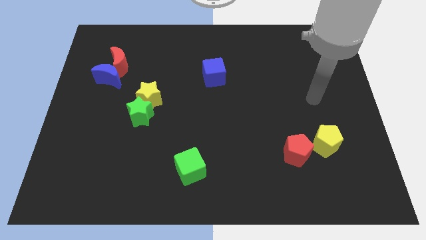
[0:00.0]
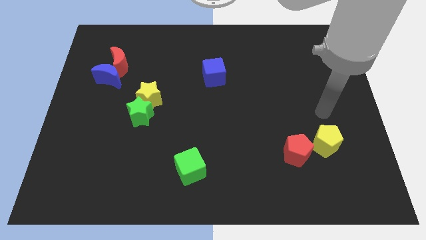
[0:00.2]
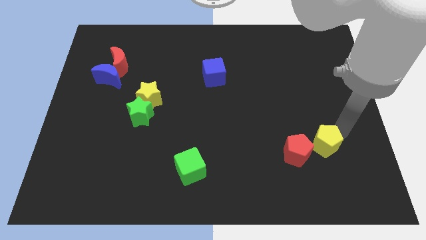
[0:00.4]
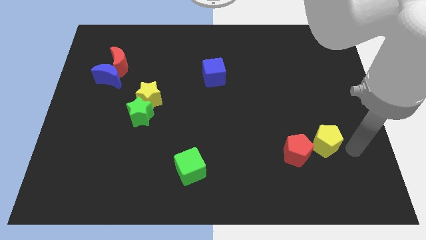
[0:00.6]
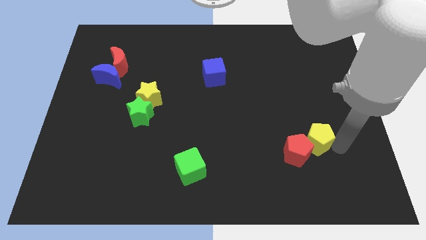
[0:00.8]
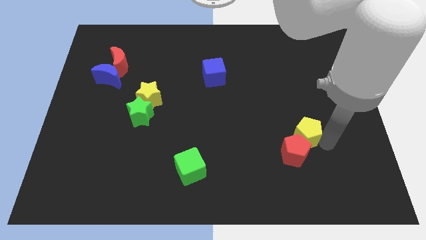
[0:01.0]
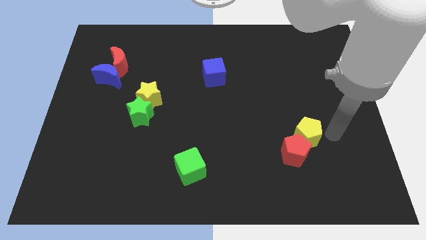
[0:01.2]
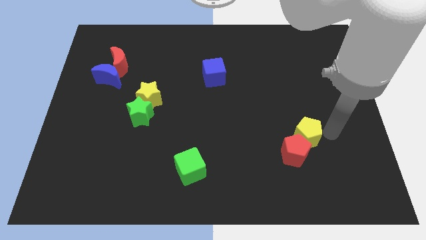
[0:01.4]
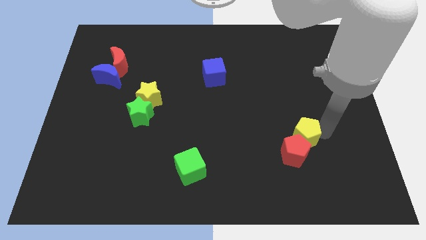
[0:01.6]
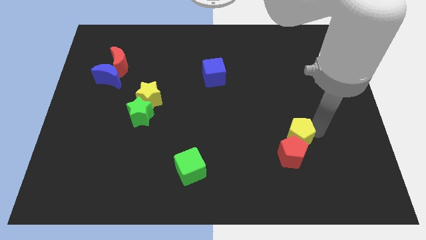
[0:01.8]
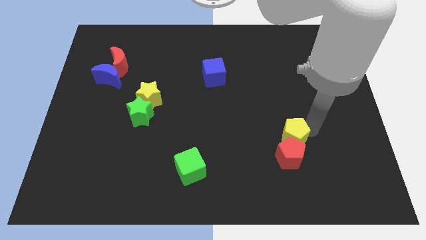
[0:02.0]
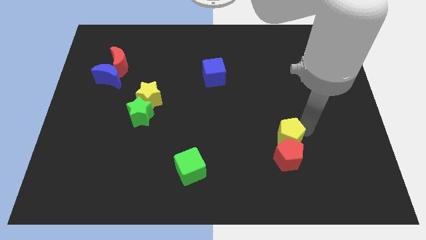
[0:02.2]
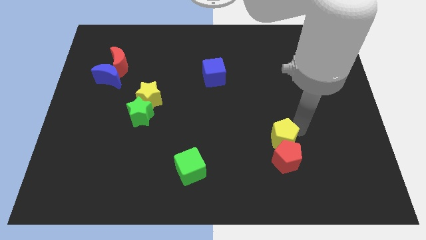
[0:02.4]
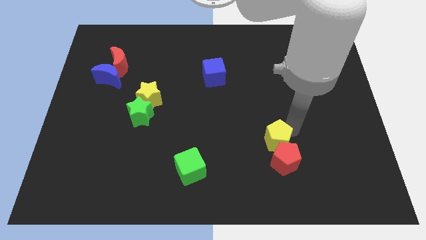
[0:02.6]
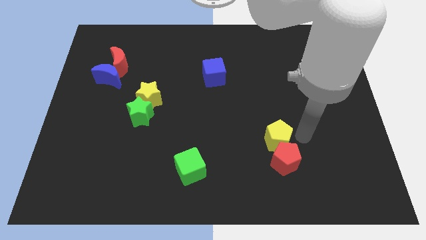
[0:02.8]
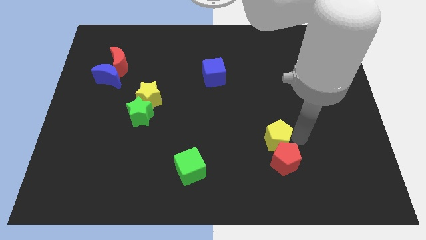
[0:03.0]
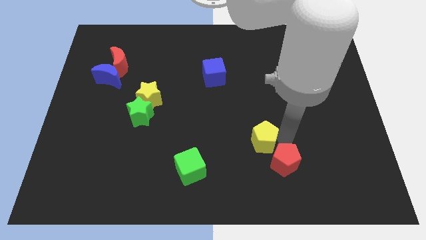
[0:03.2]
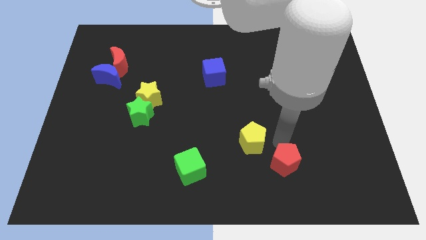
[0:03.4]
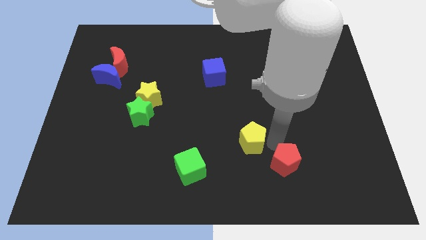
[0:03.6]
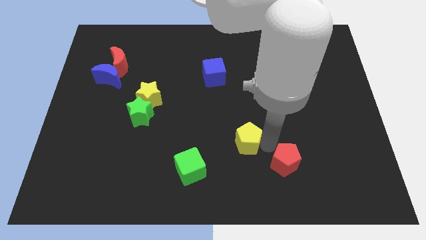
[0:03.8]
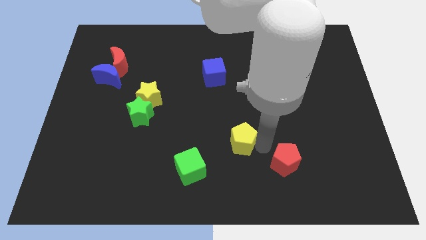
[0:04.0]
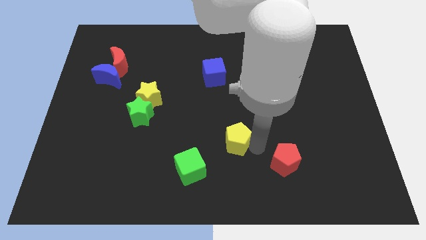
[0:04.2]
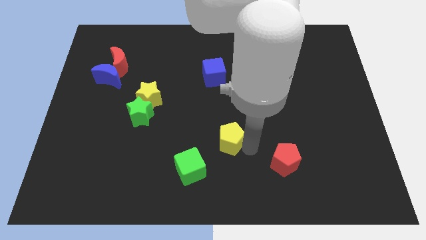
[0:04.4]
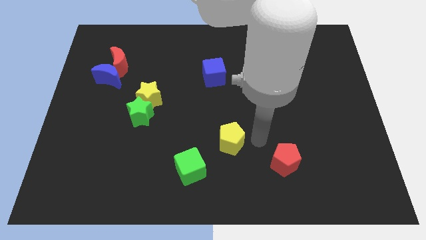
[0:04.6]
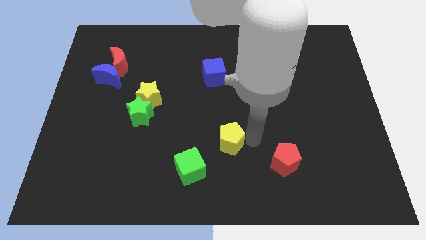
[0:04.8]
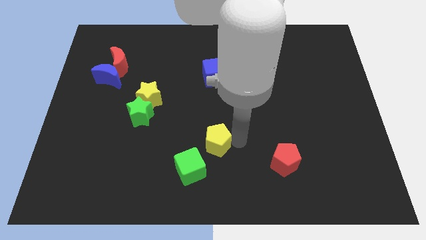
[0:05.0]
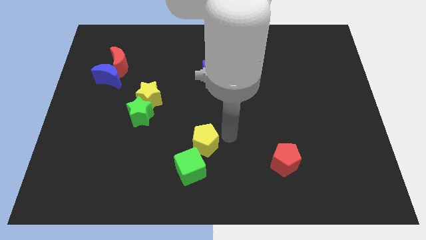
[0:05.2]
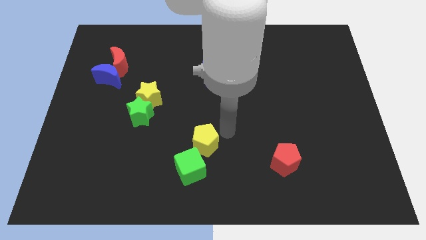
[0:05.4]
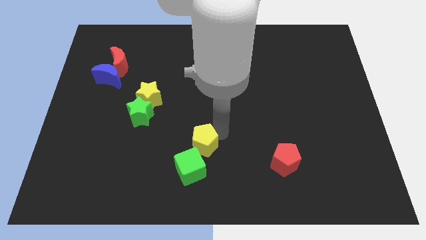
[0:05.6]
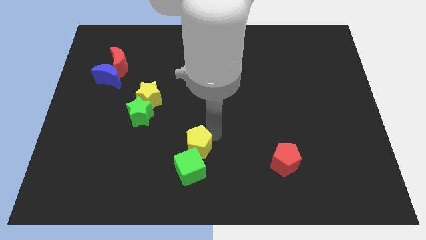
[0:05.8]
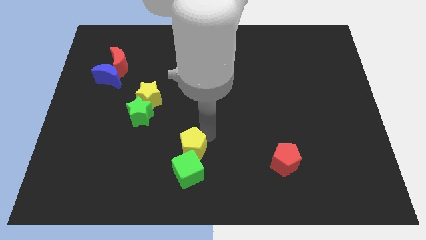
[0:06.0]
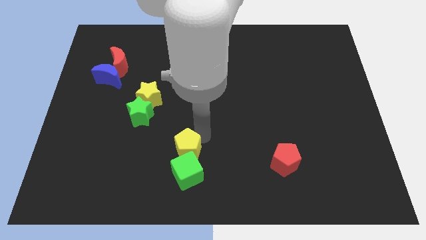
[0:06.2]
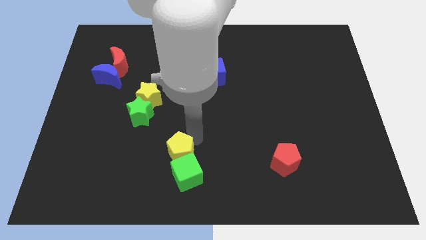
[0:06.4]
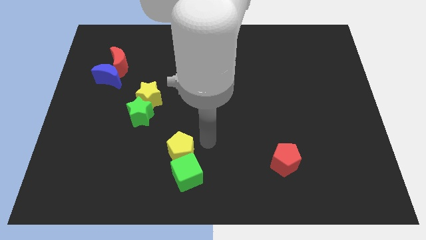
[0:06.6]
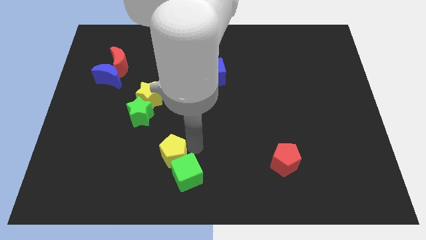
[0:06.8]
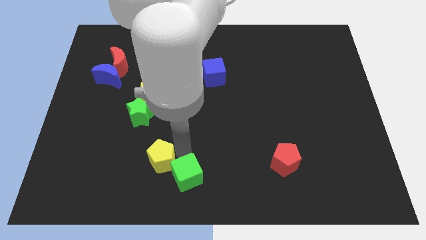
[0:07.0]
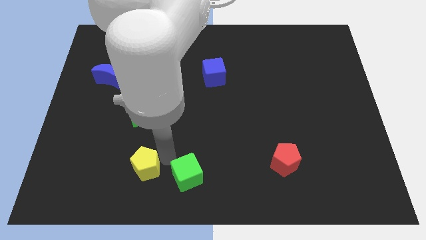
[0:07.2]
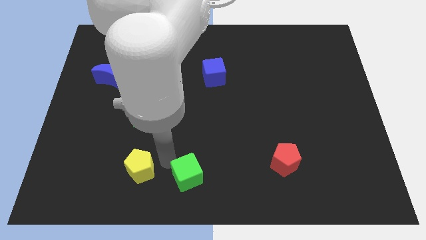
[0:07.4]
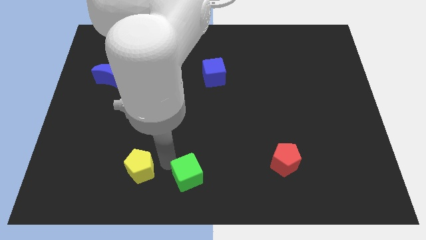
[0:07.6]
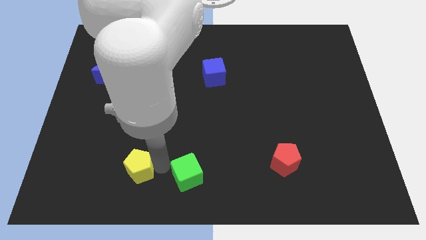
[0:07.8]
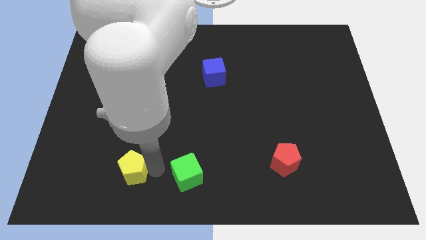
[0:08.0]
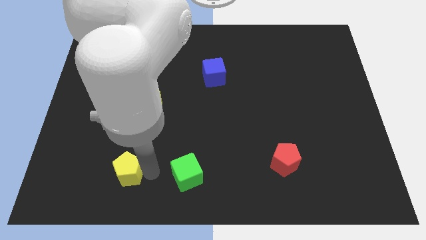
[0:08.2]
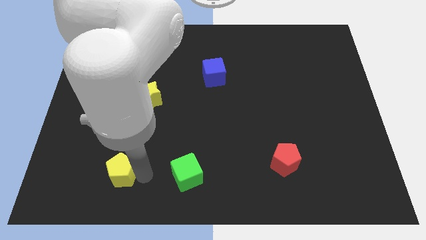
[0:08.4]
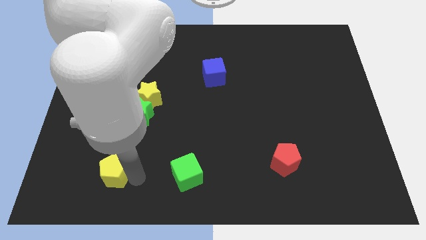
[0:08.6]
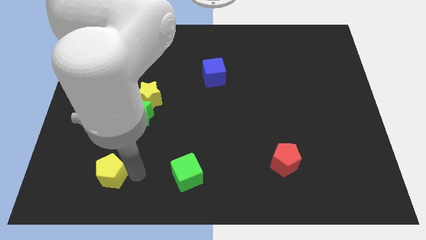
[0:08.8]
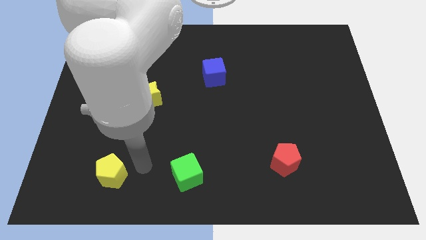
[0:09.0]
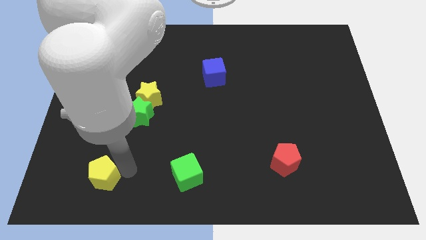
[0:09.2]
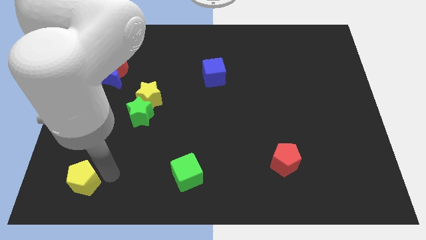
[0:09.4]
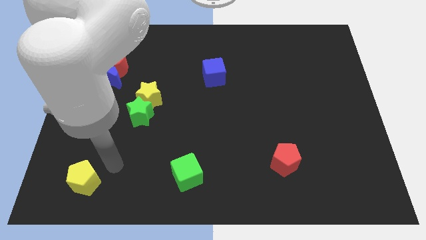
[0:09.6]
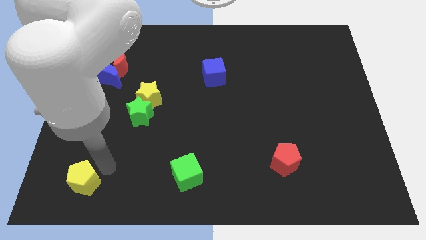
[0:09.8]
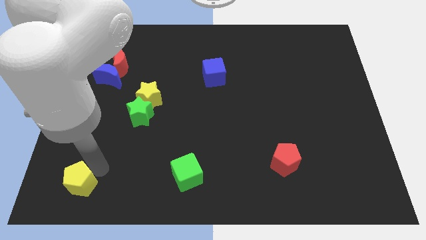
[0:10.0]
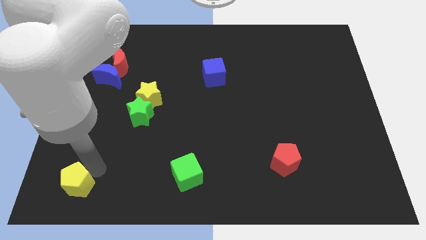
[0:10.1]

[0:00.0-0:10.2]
move the yellow pentagon to the bottom left corner

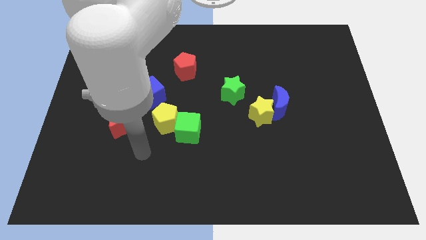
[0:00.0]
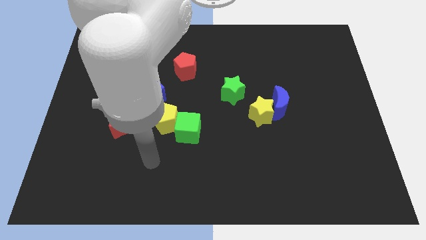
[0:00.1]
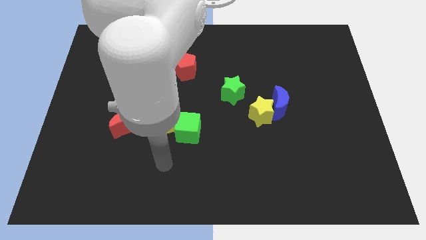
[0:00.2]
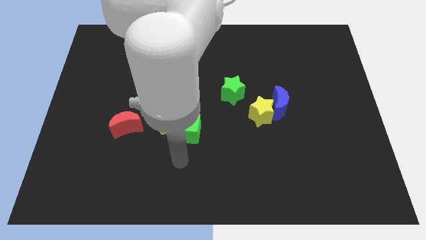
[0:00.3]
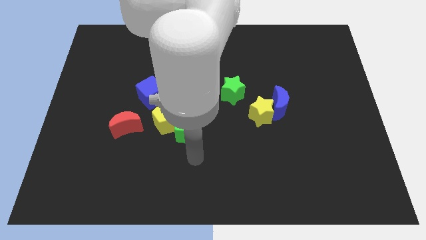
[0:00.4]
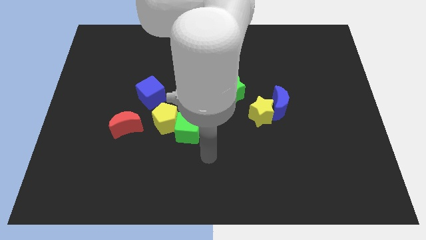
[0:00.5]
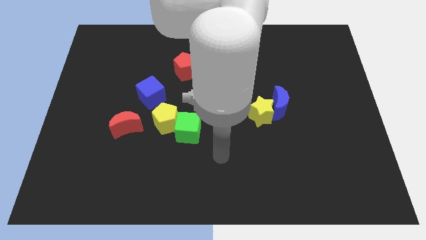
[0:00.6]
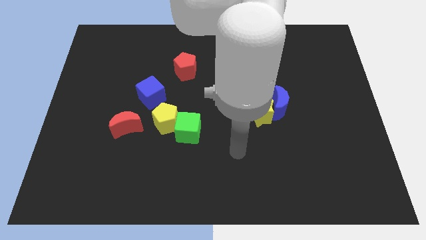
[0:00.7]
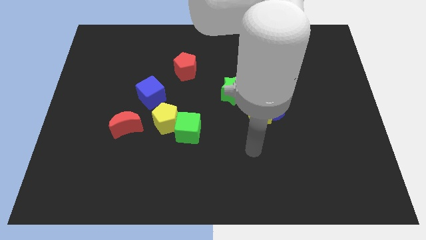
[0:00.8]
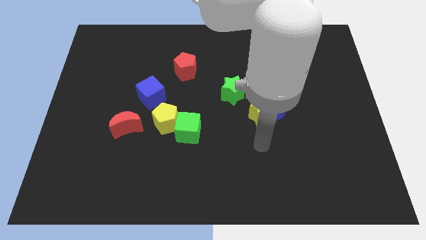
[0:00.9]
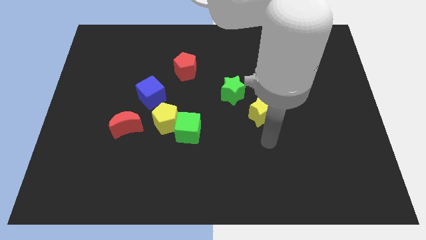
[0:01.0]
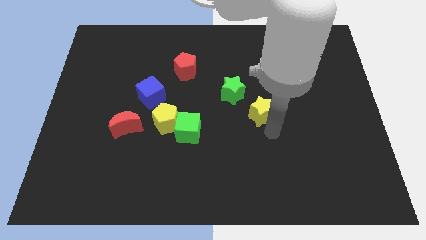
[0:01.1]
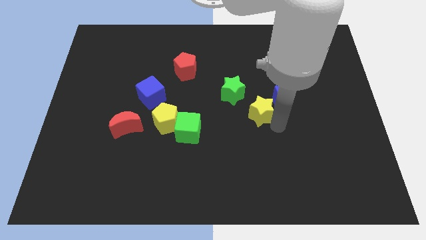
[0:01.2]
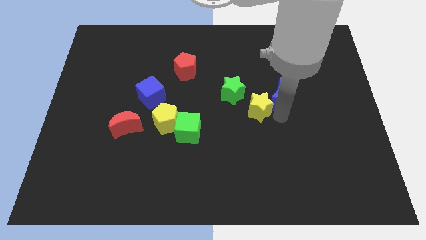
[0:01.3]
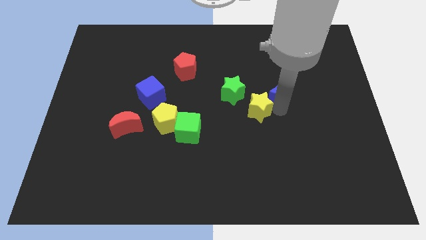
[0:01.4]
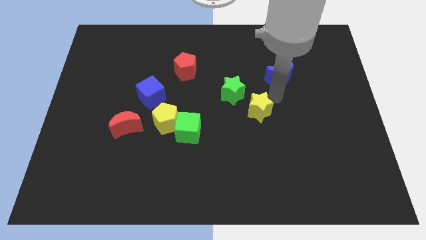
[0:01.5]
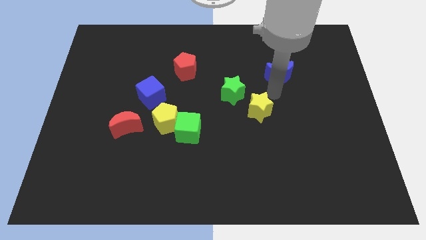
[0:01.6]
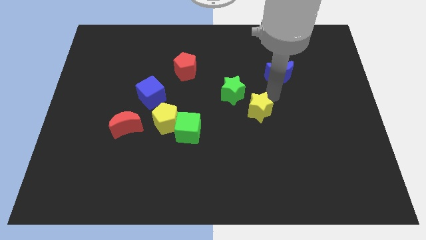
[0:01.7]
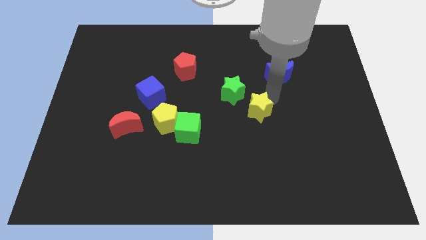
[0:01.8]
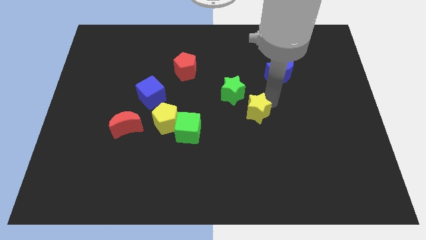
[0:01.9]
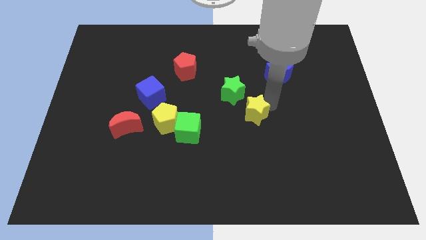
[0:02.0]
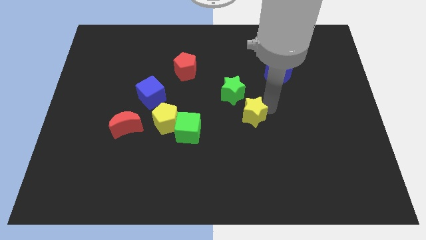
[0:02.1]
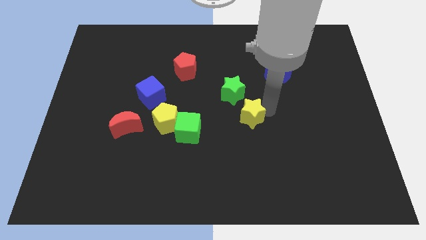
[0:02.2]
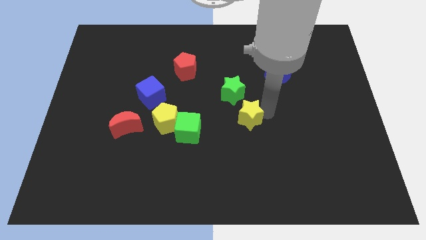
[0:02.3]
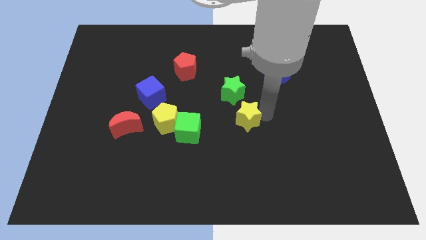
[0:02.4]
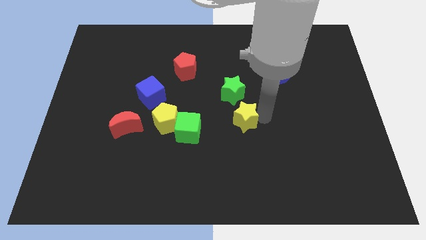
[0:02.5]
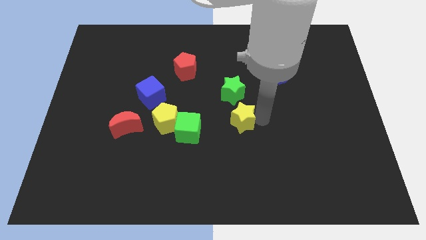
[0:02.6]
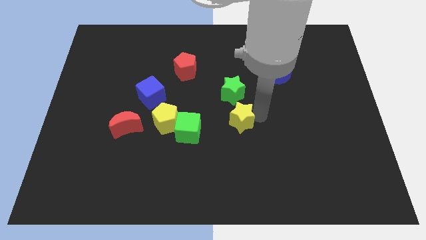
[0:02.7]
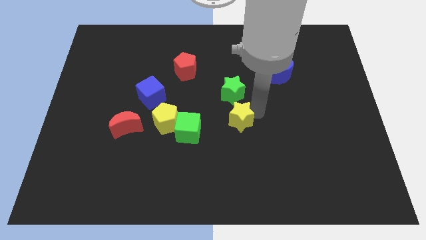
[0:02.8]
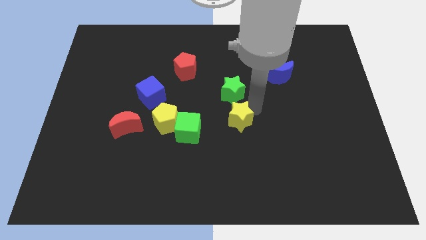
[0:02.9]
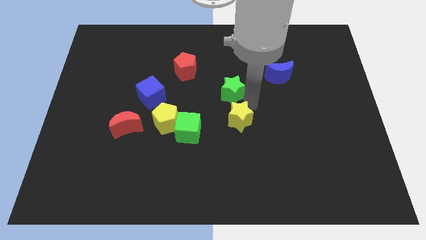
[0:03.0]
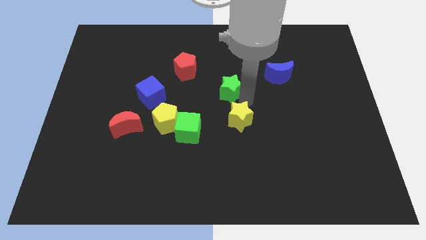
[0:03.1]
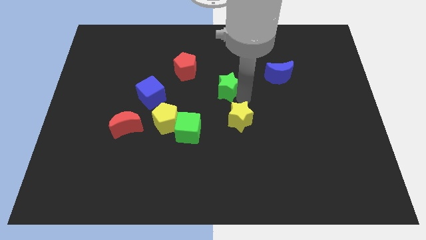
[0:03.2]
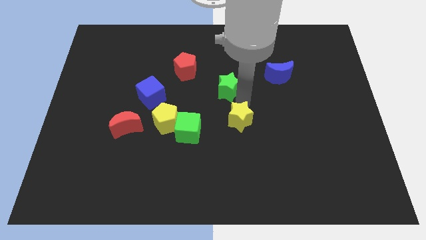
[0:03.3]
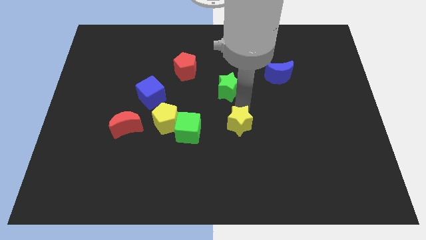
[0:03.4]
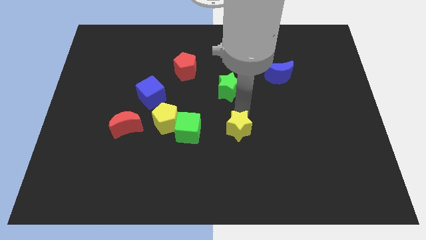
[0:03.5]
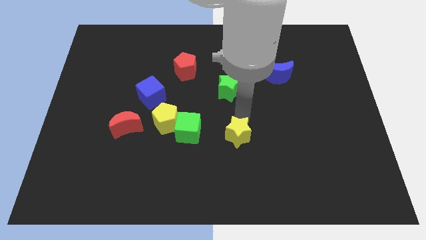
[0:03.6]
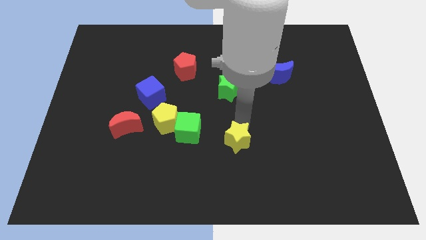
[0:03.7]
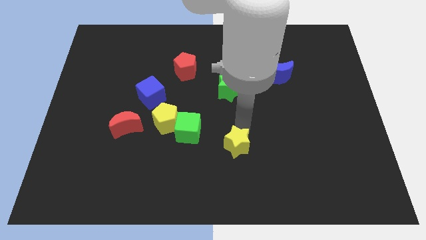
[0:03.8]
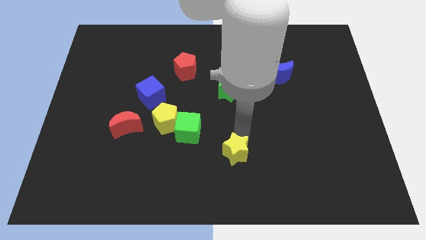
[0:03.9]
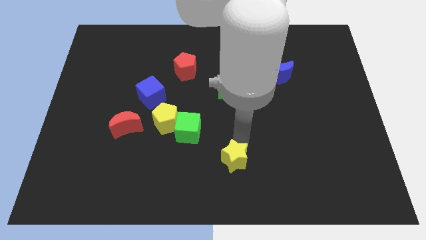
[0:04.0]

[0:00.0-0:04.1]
move the yellow star to the bottom side
